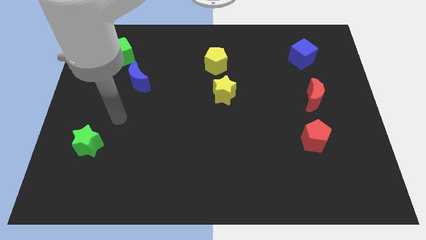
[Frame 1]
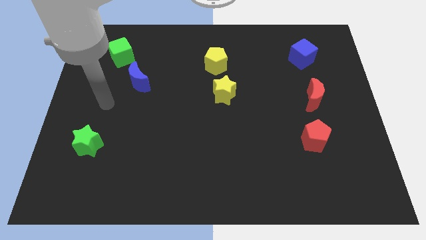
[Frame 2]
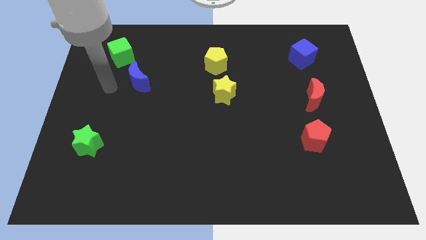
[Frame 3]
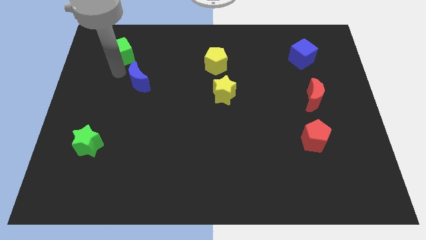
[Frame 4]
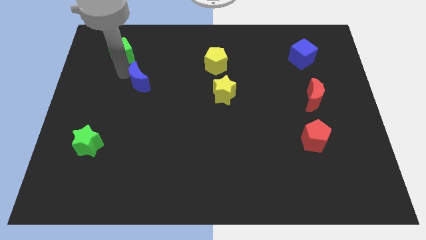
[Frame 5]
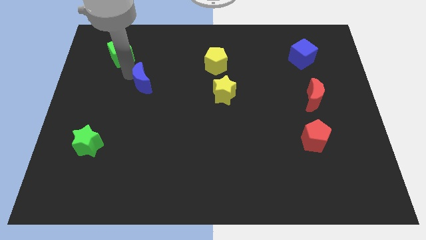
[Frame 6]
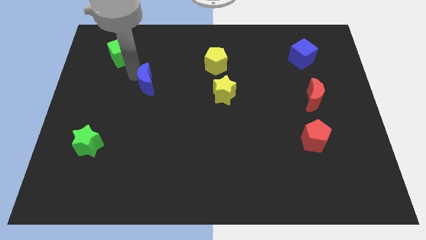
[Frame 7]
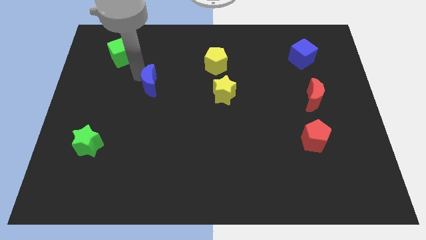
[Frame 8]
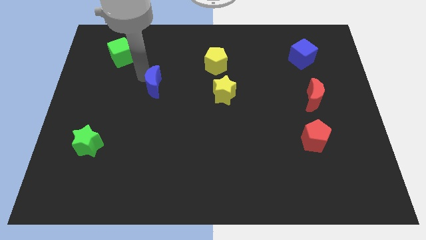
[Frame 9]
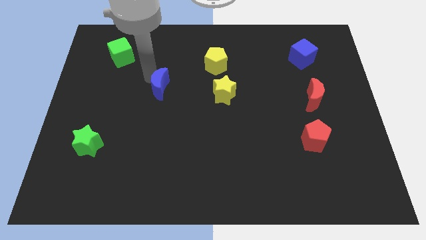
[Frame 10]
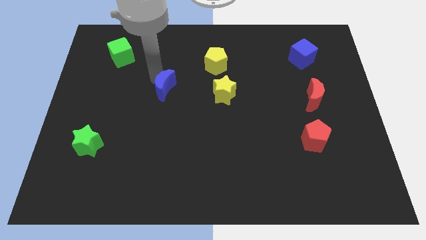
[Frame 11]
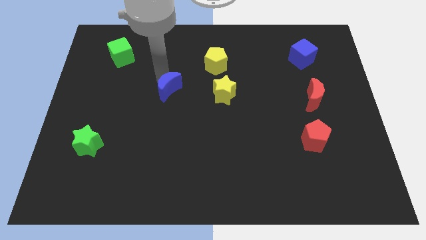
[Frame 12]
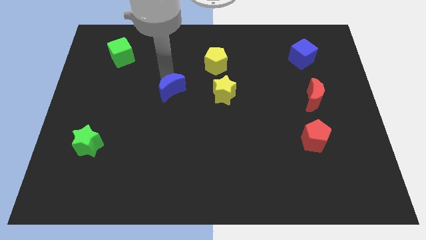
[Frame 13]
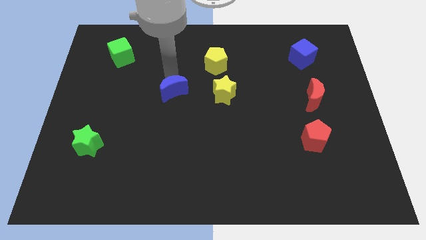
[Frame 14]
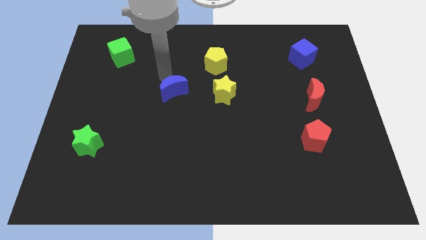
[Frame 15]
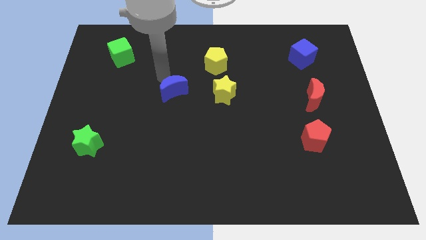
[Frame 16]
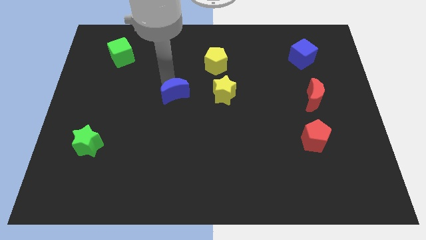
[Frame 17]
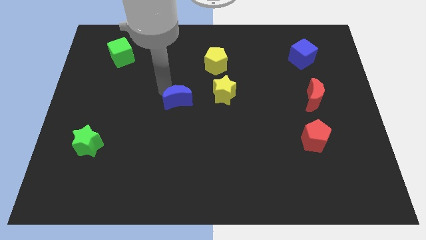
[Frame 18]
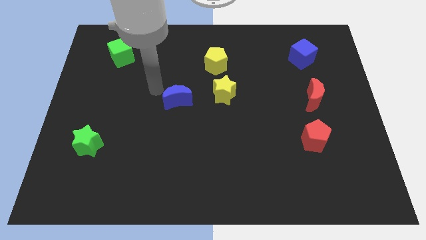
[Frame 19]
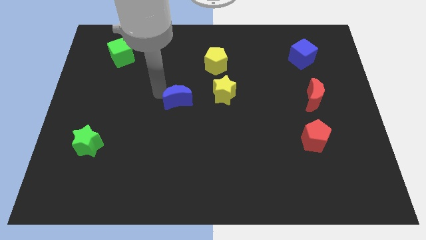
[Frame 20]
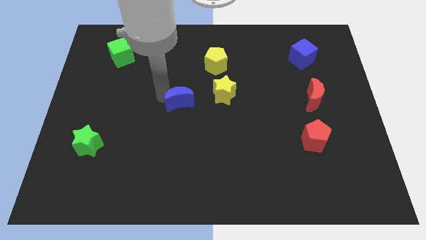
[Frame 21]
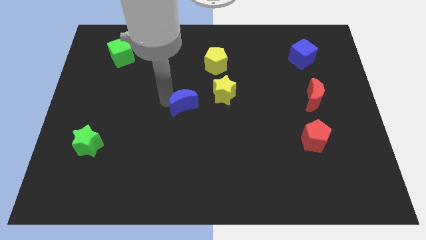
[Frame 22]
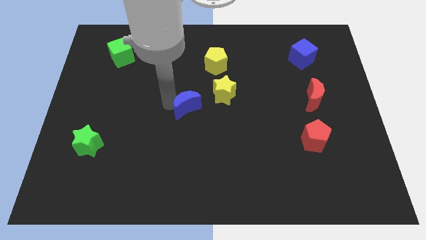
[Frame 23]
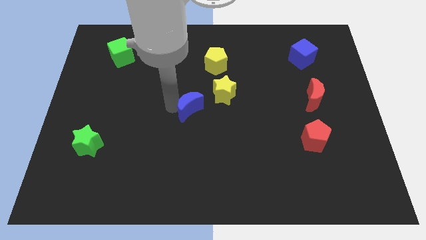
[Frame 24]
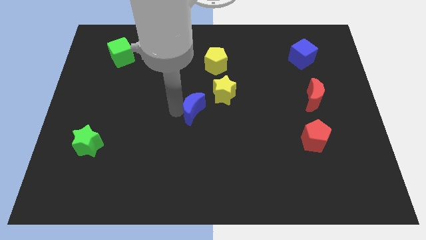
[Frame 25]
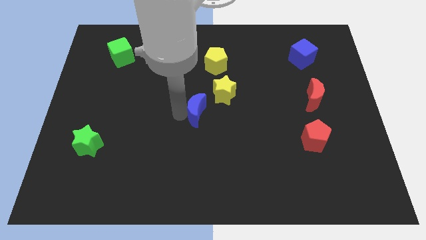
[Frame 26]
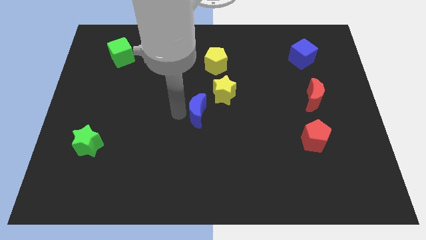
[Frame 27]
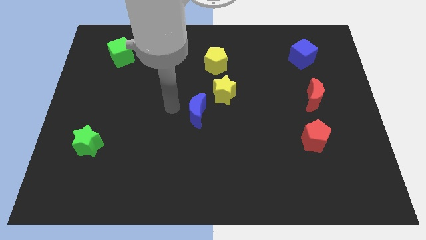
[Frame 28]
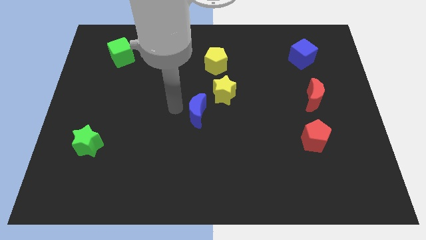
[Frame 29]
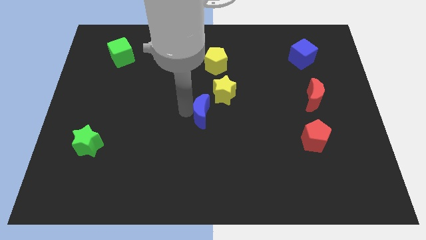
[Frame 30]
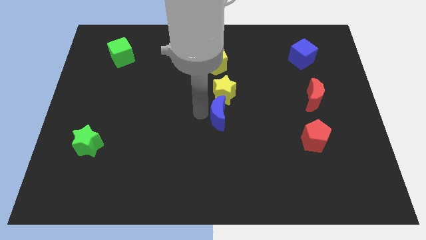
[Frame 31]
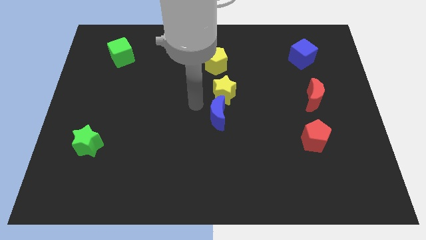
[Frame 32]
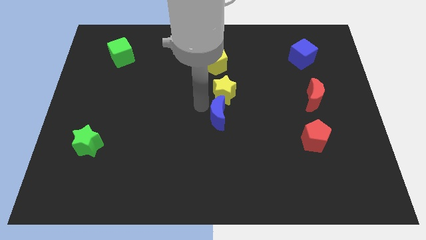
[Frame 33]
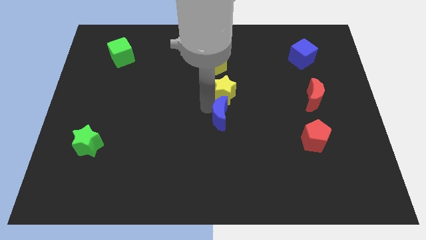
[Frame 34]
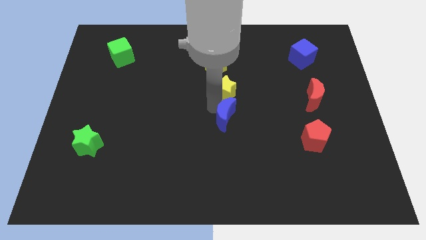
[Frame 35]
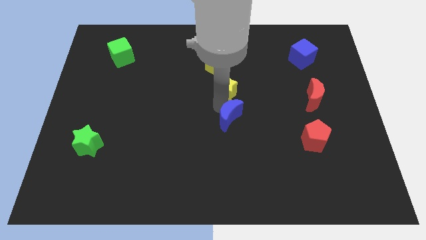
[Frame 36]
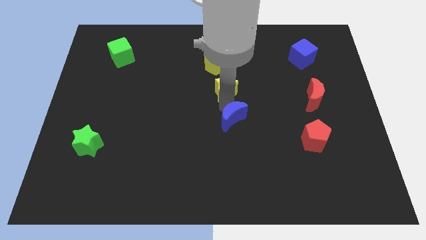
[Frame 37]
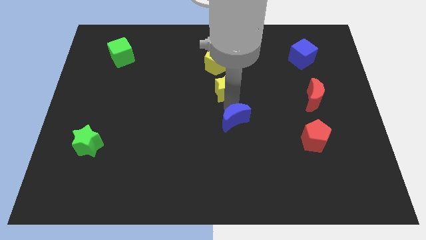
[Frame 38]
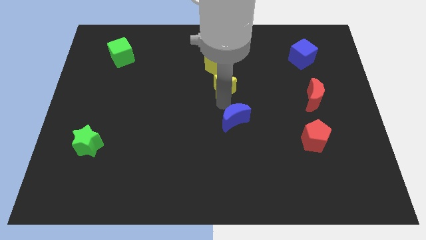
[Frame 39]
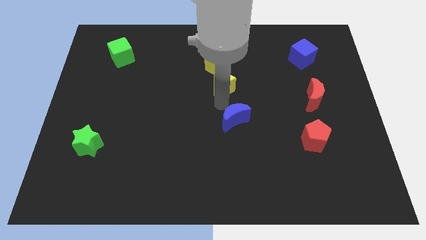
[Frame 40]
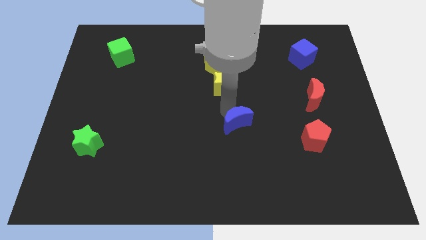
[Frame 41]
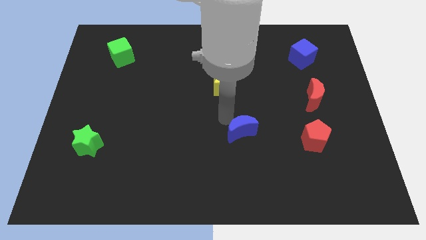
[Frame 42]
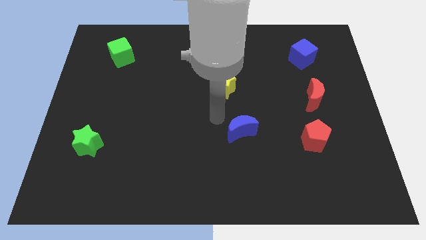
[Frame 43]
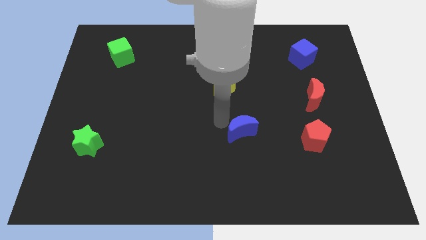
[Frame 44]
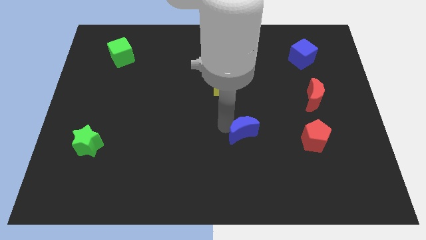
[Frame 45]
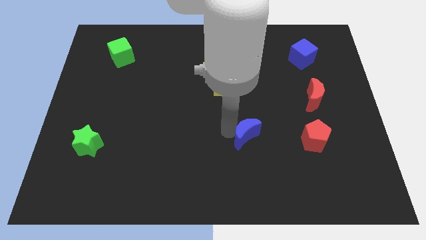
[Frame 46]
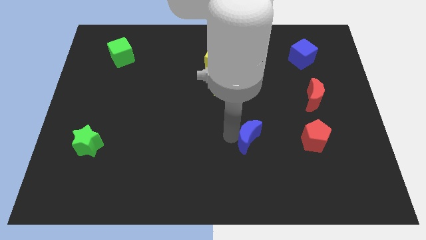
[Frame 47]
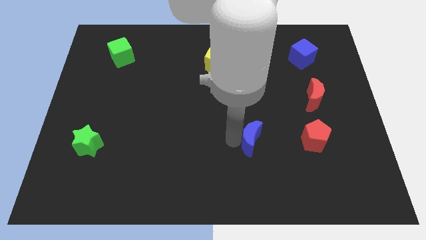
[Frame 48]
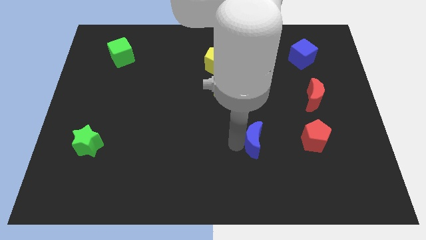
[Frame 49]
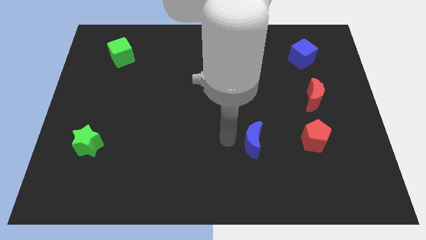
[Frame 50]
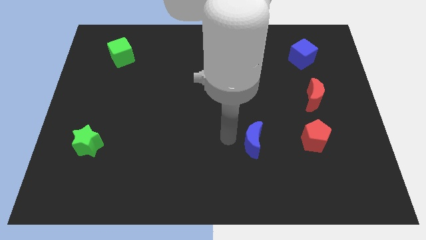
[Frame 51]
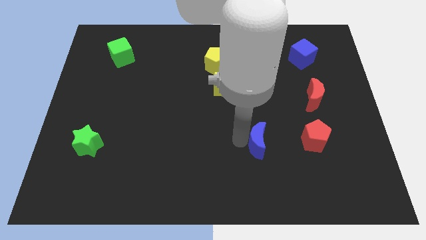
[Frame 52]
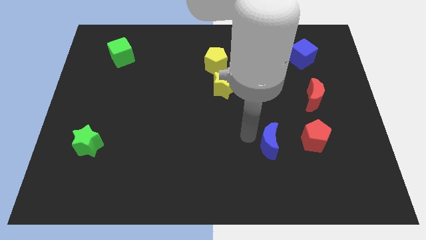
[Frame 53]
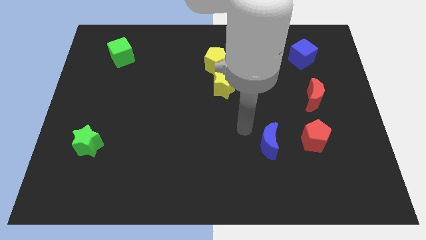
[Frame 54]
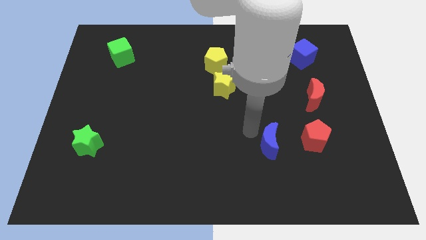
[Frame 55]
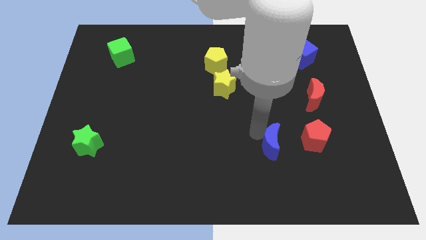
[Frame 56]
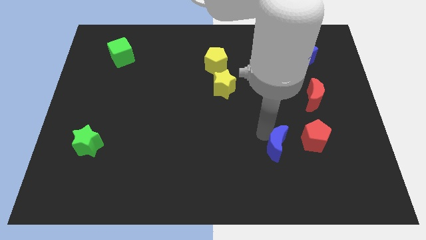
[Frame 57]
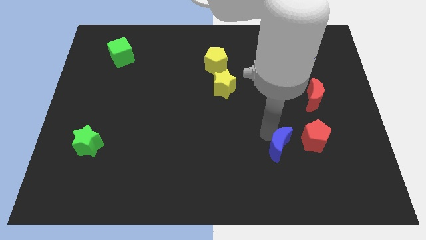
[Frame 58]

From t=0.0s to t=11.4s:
slide the blue moon to the bottom left of the red pentagon

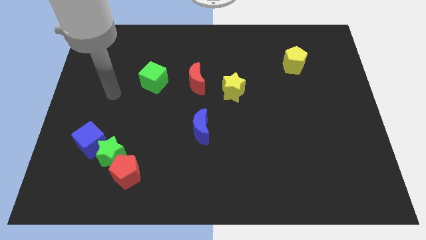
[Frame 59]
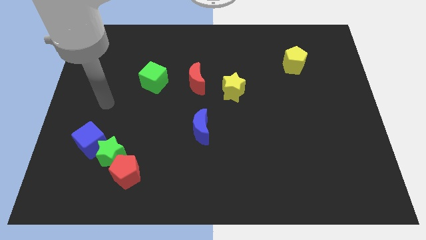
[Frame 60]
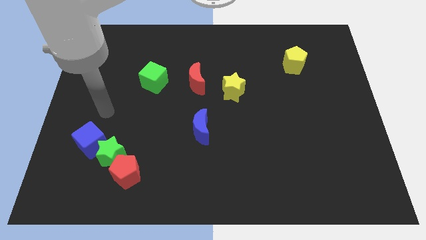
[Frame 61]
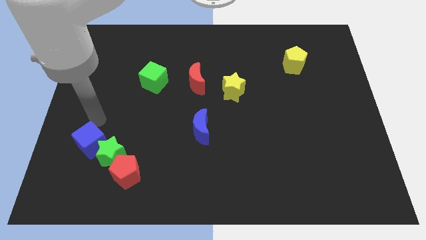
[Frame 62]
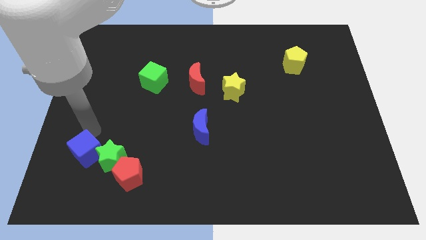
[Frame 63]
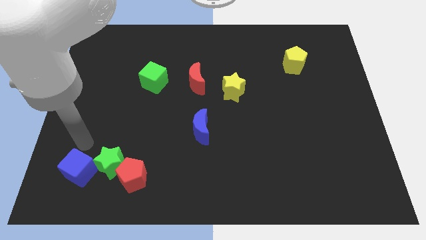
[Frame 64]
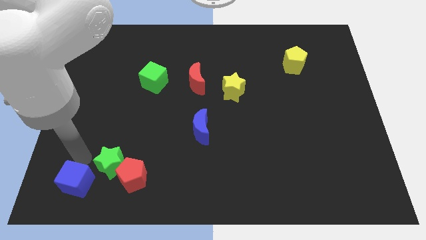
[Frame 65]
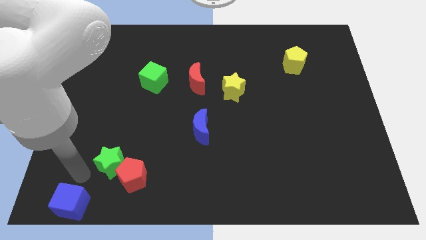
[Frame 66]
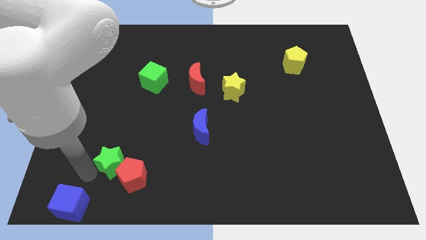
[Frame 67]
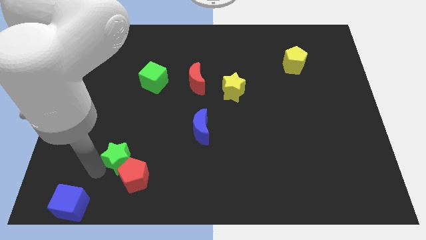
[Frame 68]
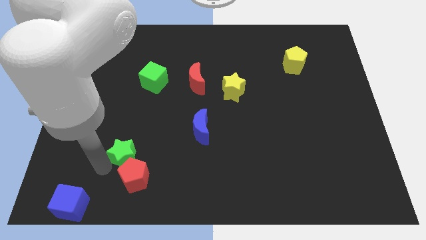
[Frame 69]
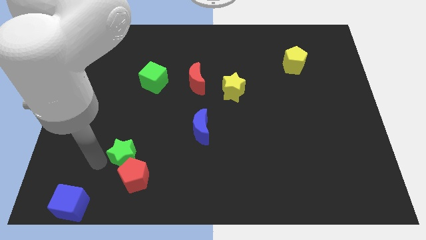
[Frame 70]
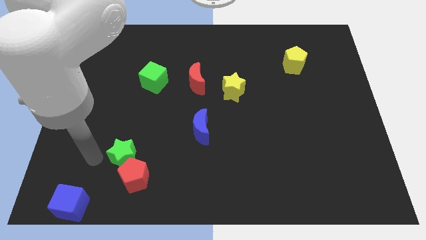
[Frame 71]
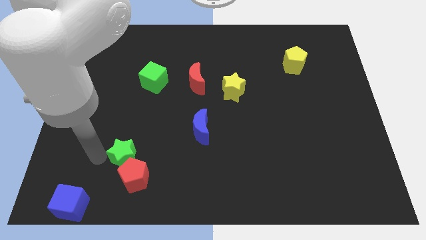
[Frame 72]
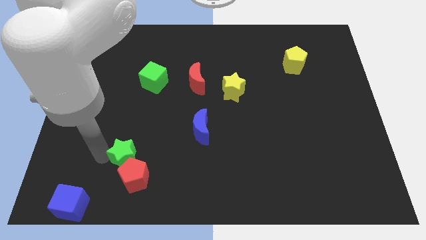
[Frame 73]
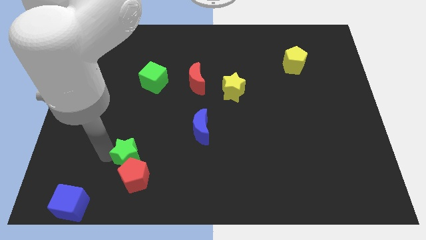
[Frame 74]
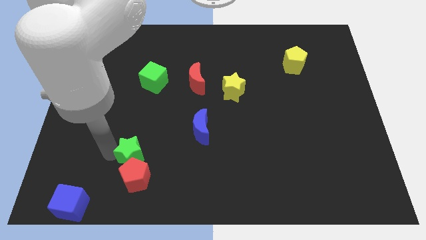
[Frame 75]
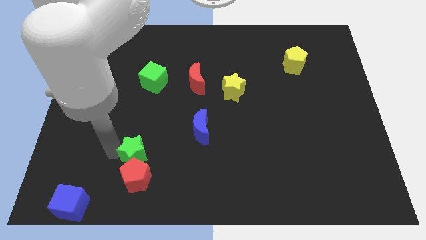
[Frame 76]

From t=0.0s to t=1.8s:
push the green star to the top right side of the red pentagon
